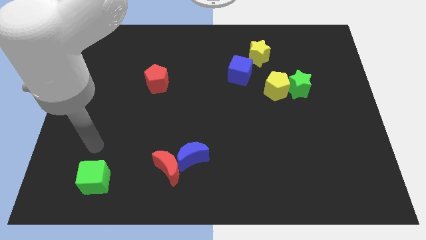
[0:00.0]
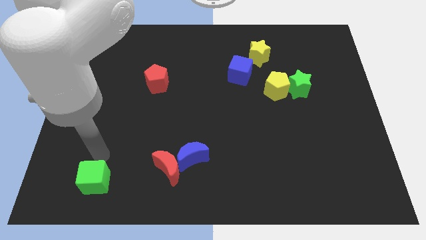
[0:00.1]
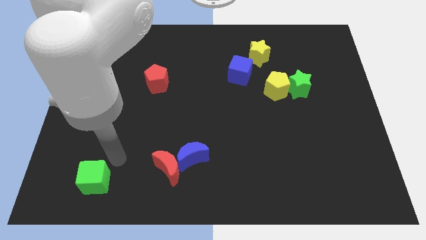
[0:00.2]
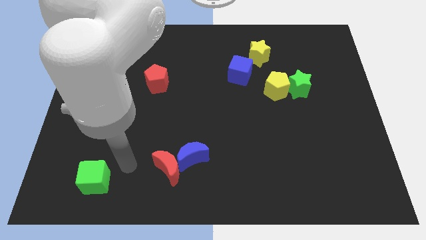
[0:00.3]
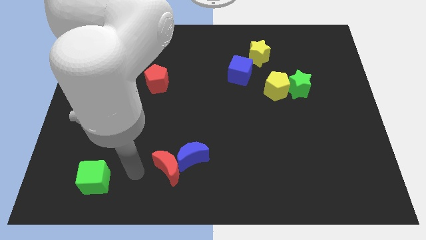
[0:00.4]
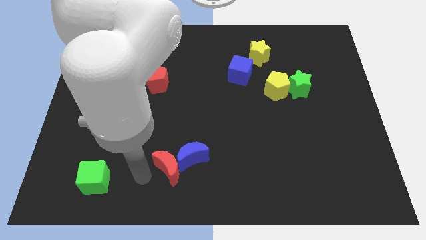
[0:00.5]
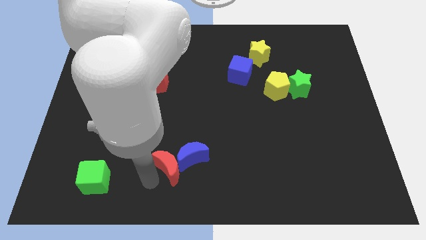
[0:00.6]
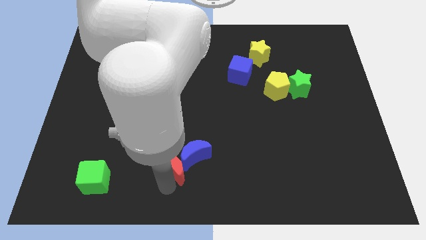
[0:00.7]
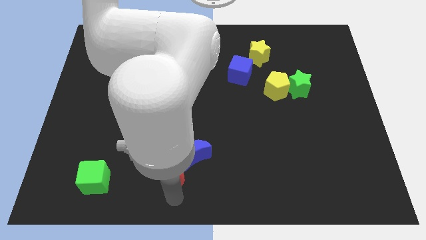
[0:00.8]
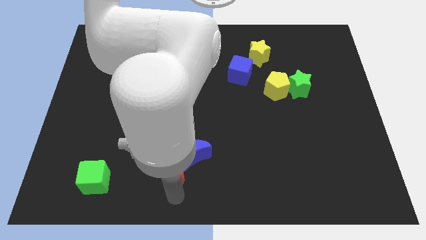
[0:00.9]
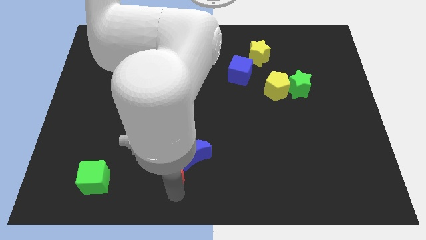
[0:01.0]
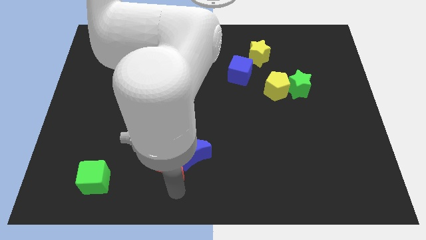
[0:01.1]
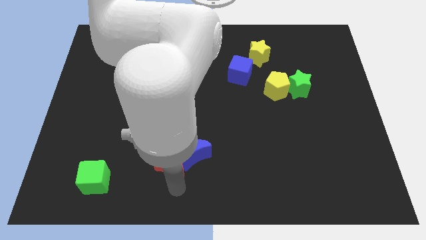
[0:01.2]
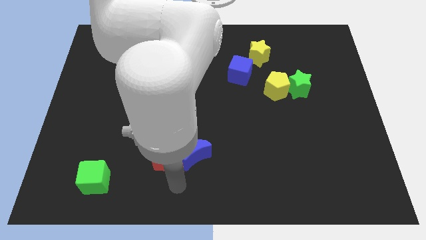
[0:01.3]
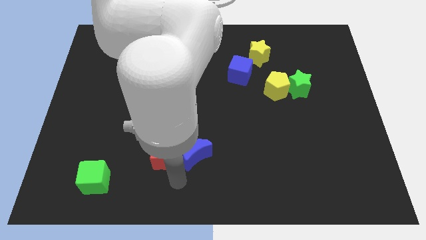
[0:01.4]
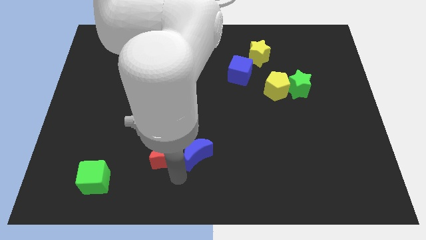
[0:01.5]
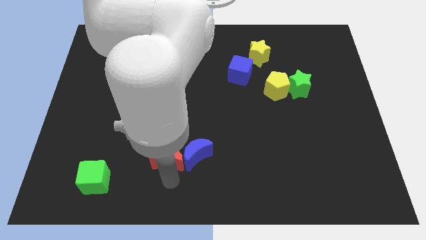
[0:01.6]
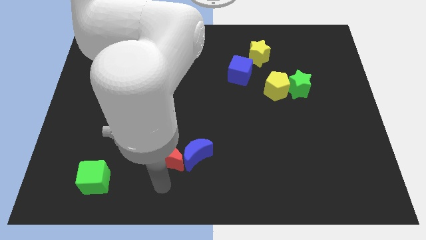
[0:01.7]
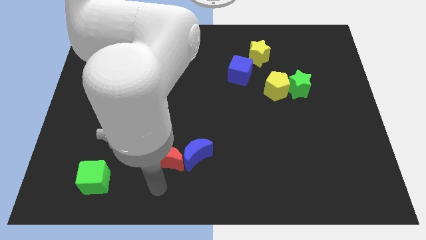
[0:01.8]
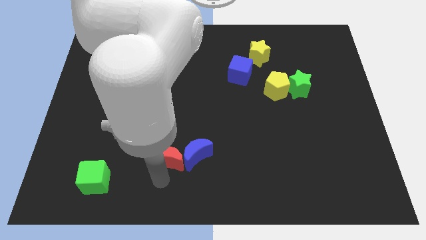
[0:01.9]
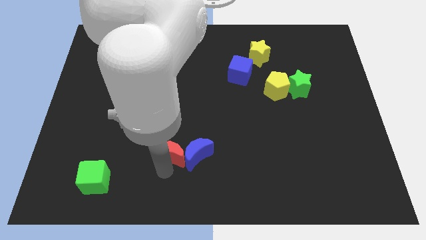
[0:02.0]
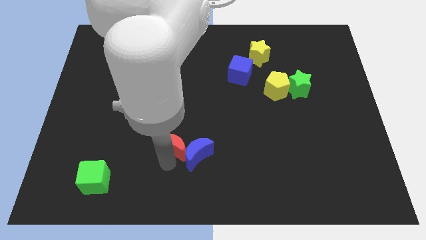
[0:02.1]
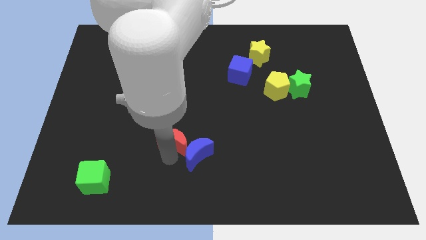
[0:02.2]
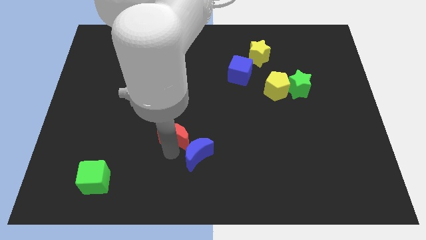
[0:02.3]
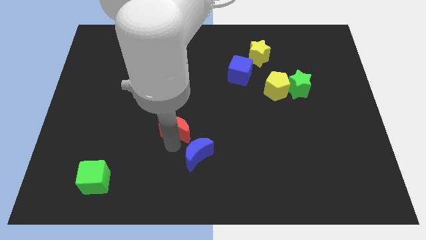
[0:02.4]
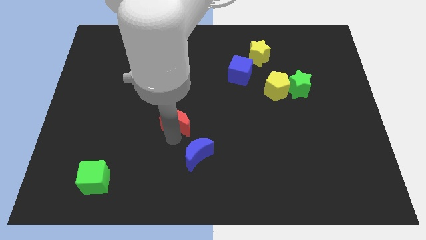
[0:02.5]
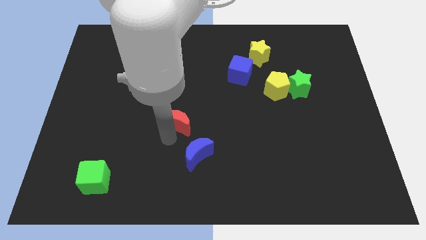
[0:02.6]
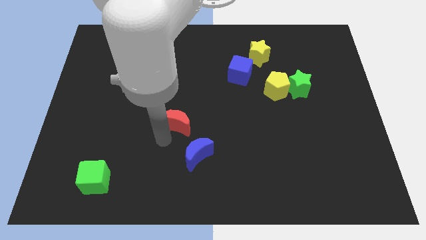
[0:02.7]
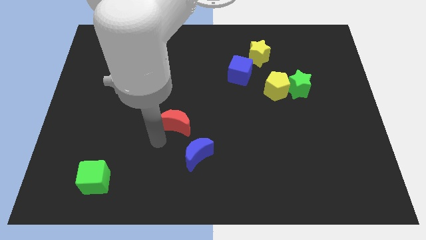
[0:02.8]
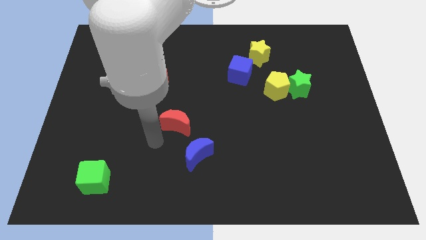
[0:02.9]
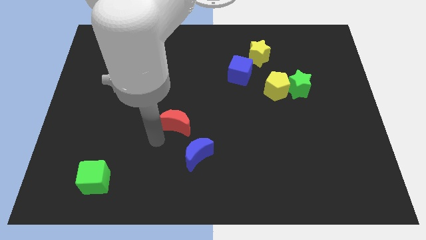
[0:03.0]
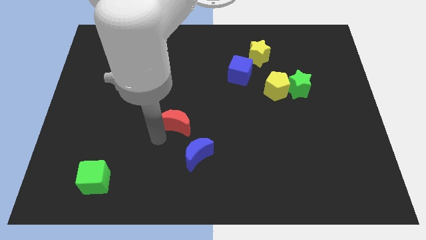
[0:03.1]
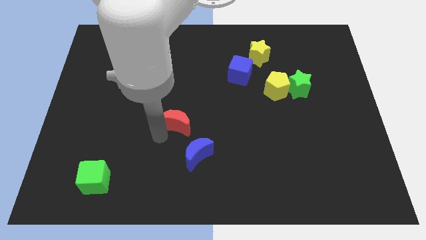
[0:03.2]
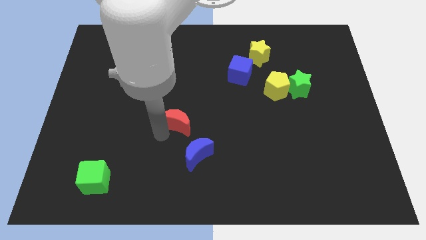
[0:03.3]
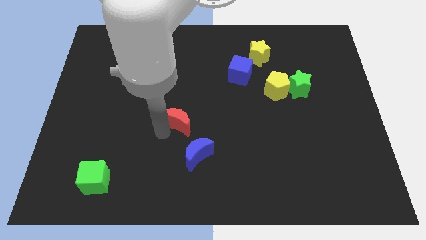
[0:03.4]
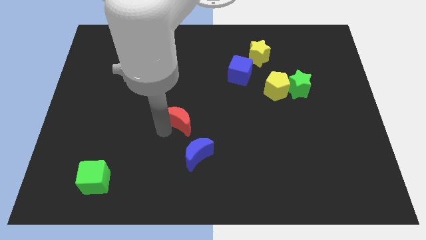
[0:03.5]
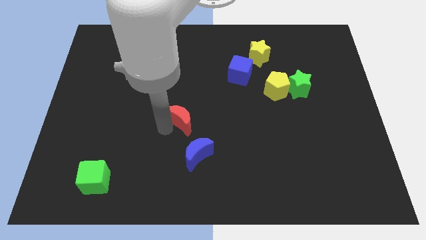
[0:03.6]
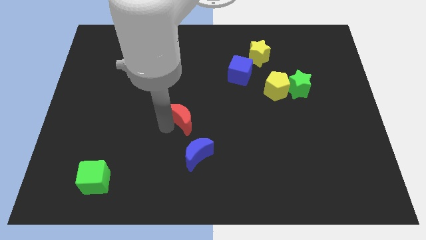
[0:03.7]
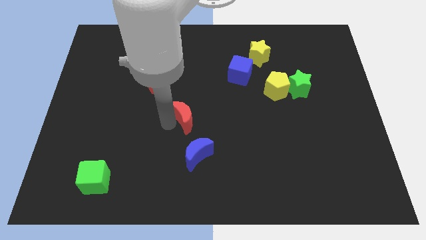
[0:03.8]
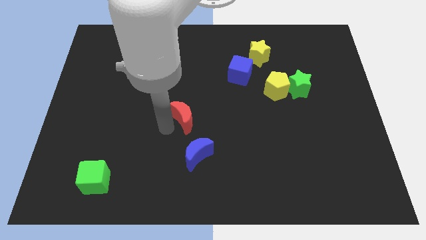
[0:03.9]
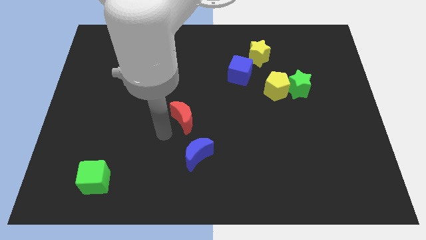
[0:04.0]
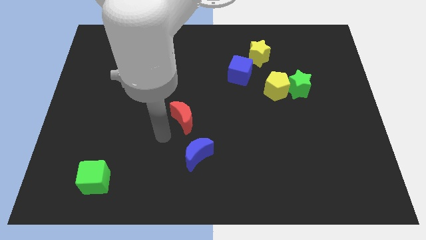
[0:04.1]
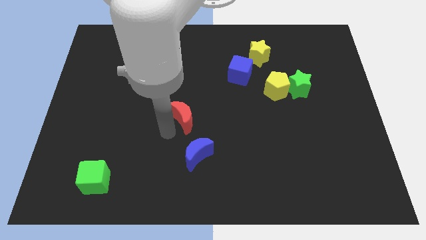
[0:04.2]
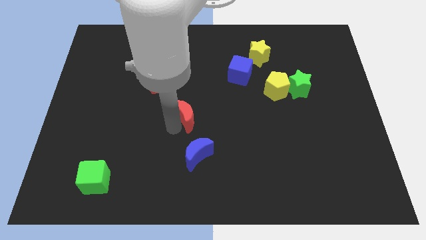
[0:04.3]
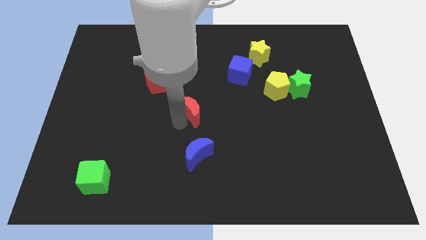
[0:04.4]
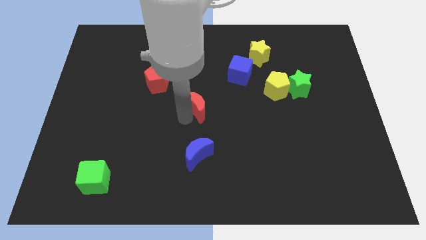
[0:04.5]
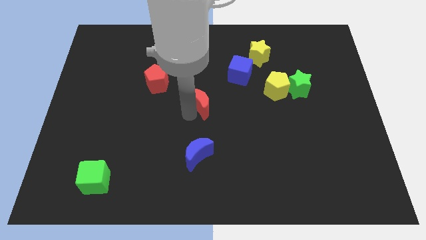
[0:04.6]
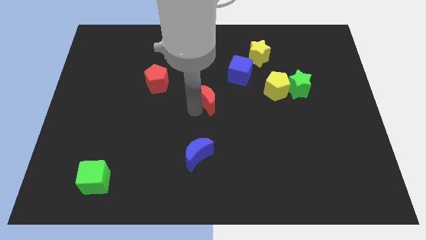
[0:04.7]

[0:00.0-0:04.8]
slide the red moon diagonally down and to the left of the blue cube

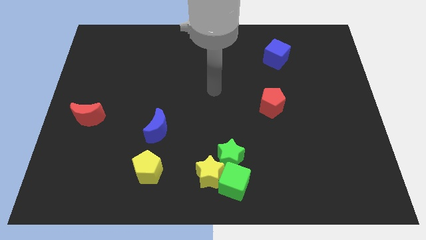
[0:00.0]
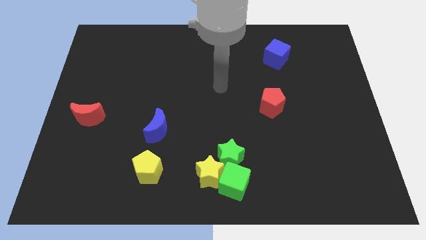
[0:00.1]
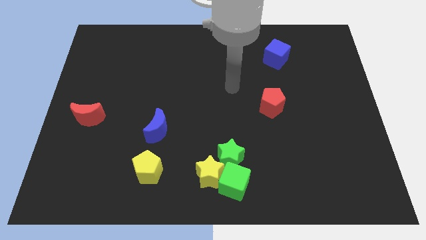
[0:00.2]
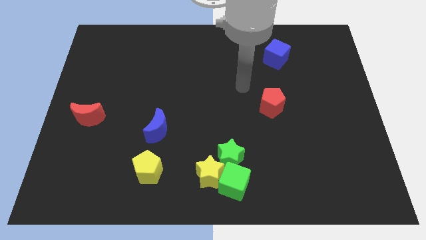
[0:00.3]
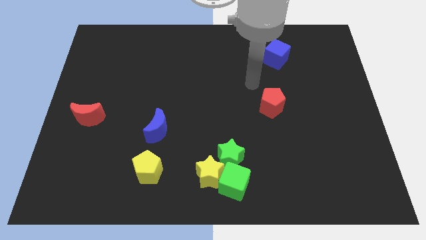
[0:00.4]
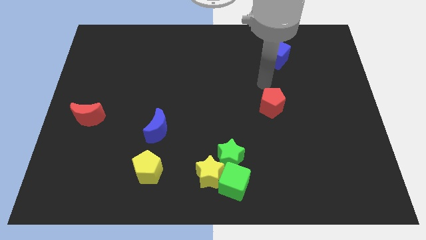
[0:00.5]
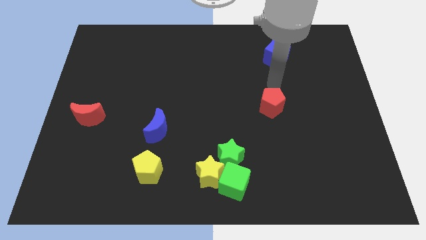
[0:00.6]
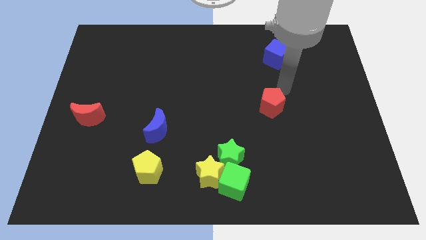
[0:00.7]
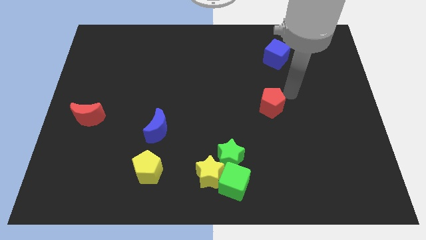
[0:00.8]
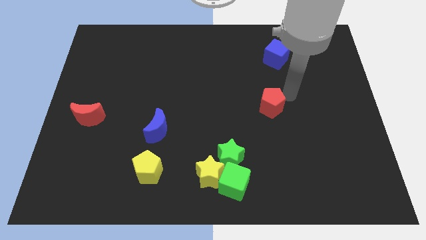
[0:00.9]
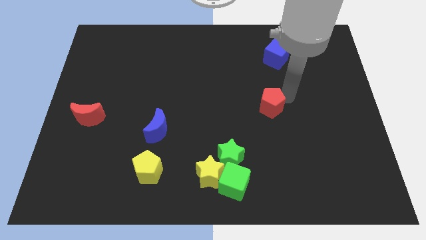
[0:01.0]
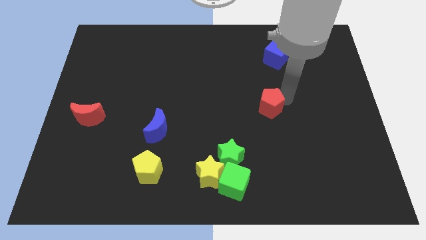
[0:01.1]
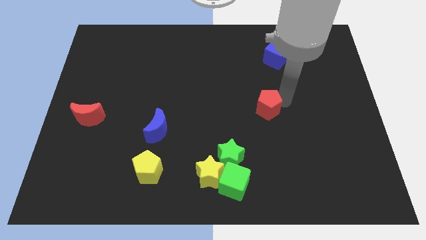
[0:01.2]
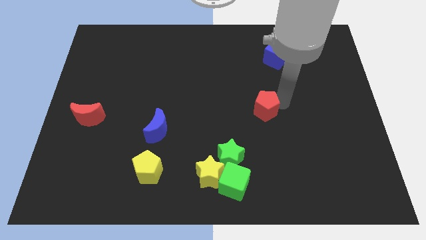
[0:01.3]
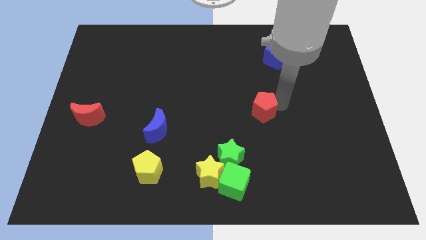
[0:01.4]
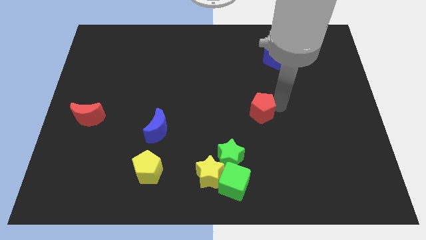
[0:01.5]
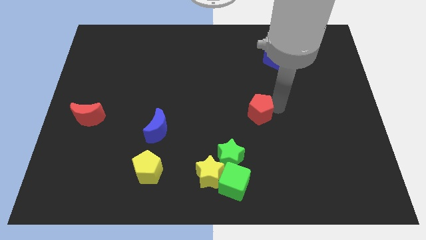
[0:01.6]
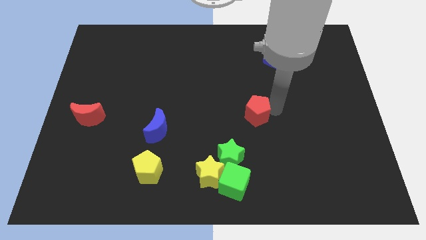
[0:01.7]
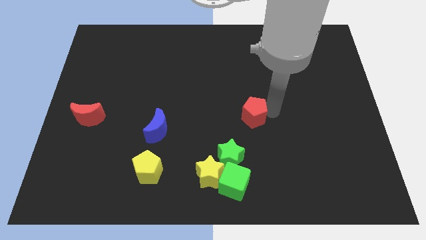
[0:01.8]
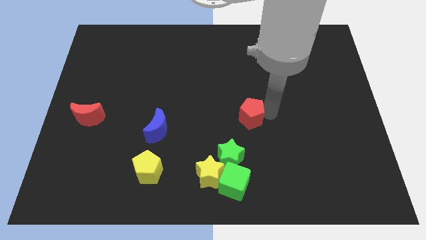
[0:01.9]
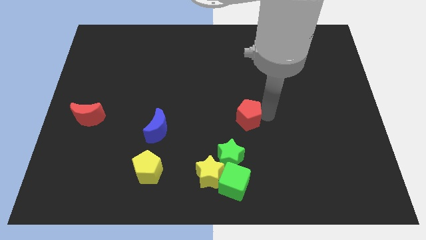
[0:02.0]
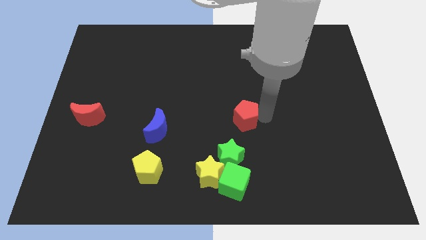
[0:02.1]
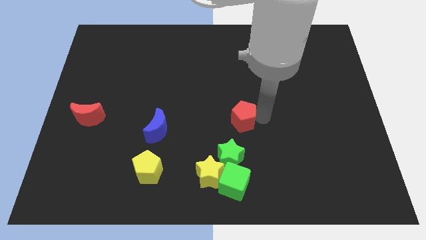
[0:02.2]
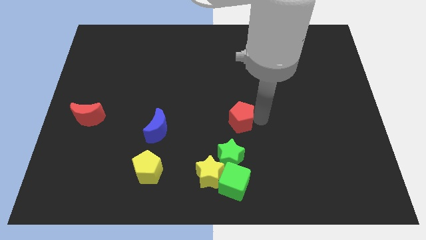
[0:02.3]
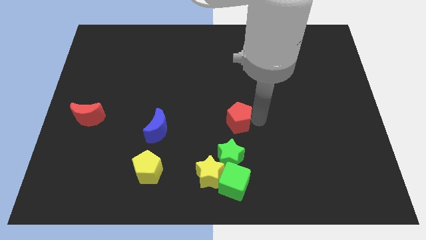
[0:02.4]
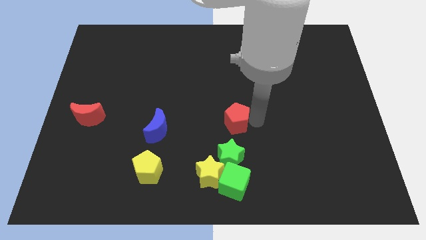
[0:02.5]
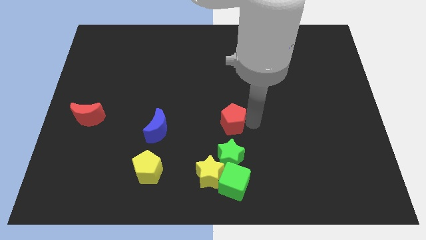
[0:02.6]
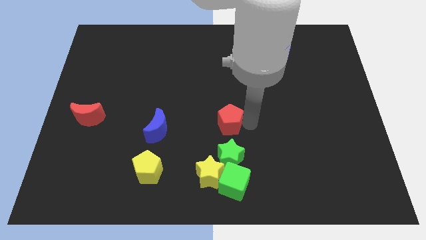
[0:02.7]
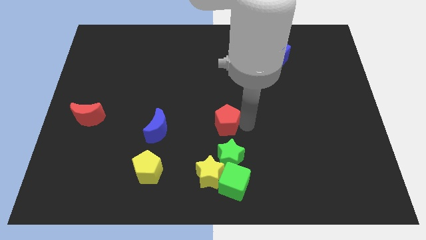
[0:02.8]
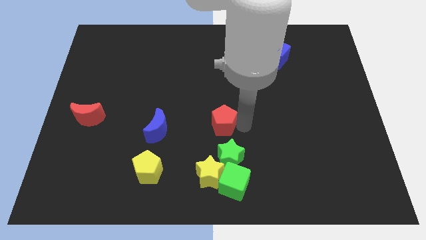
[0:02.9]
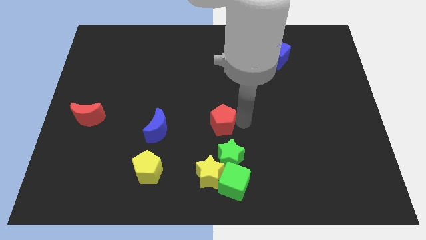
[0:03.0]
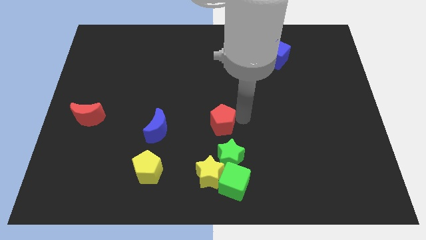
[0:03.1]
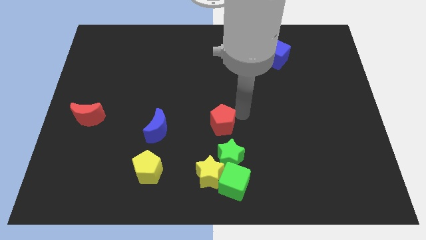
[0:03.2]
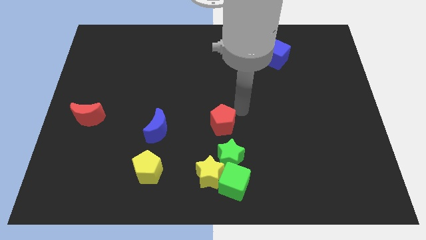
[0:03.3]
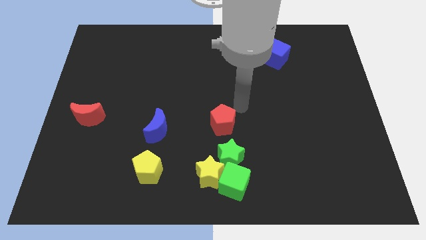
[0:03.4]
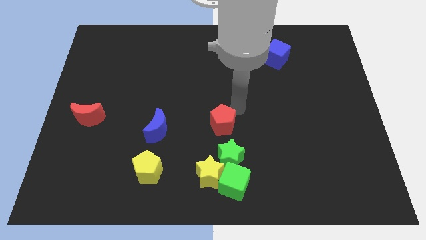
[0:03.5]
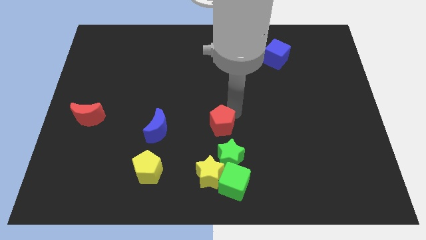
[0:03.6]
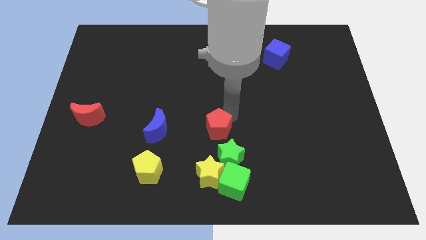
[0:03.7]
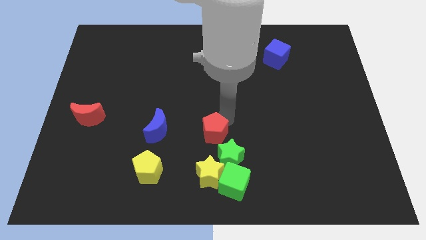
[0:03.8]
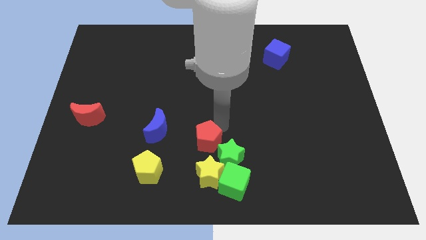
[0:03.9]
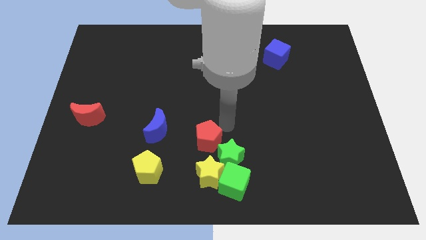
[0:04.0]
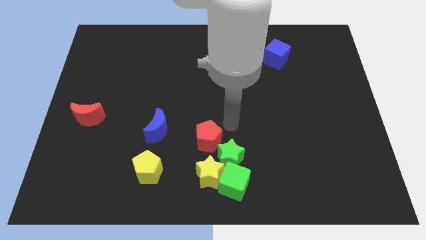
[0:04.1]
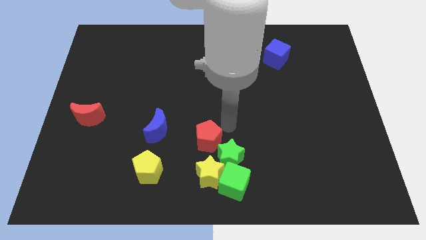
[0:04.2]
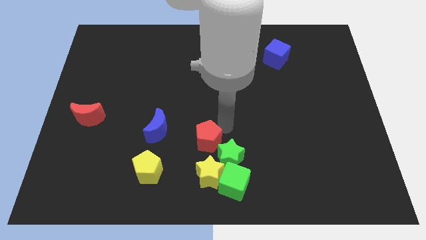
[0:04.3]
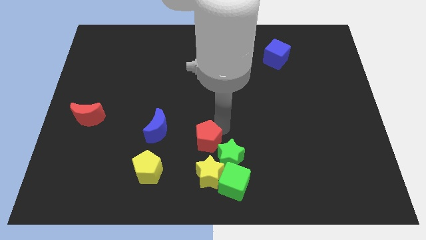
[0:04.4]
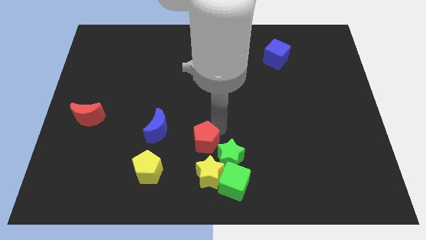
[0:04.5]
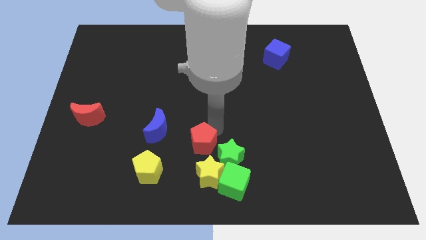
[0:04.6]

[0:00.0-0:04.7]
move the red pentagon to the top left of the yellow star
